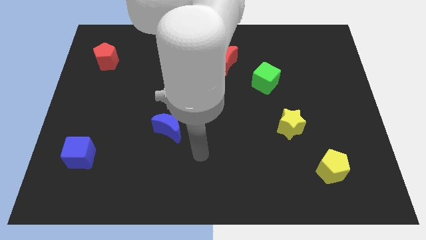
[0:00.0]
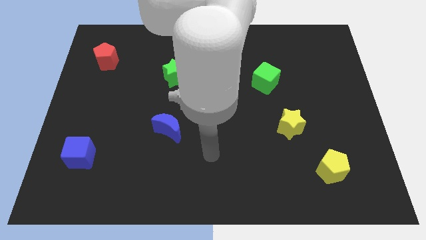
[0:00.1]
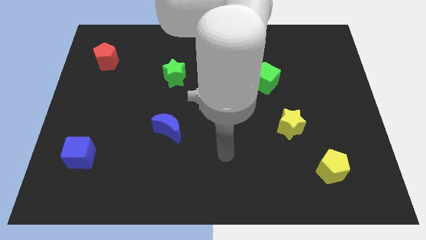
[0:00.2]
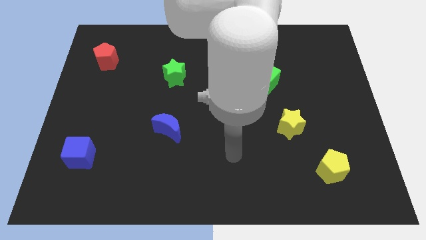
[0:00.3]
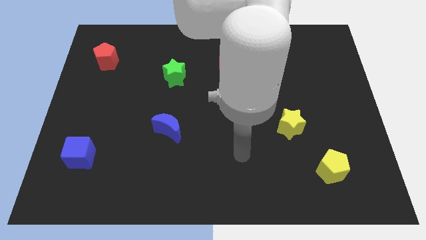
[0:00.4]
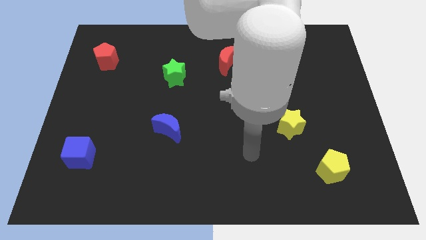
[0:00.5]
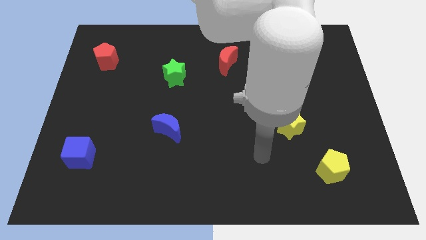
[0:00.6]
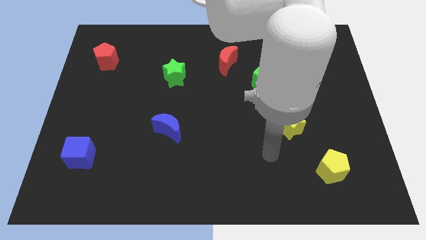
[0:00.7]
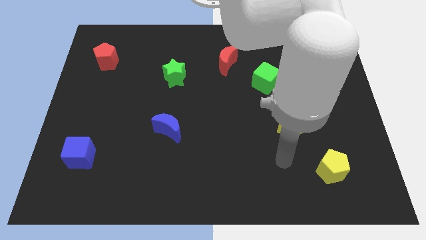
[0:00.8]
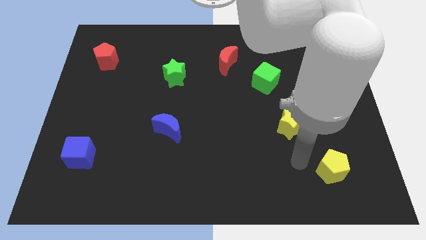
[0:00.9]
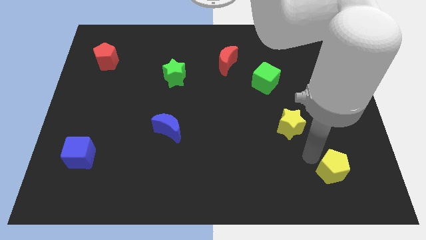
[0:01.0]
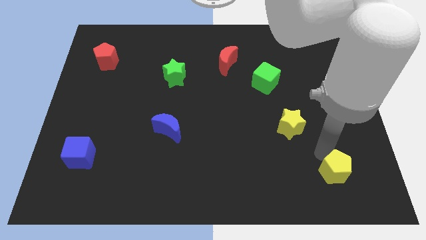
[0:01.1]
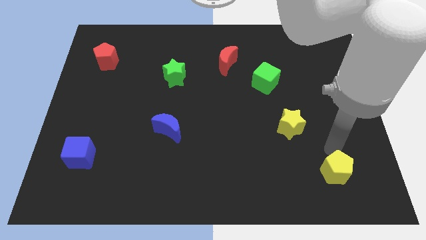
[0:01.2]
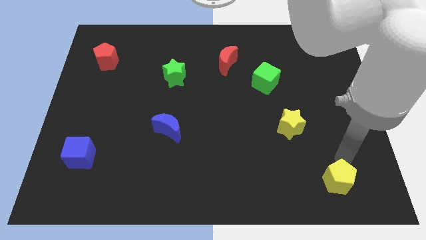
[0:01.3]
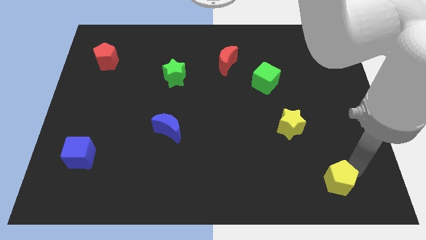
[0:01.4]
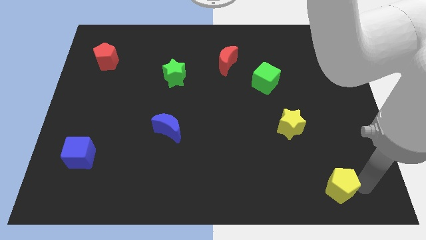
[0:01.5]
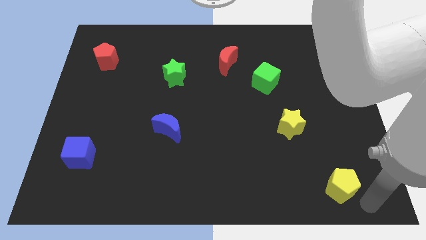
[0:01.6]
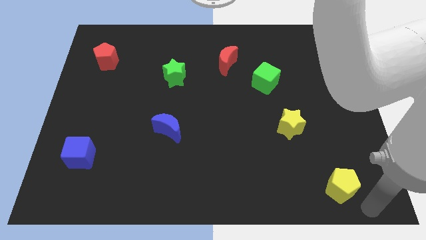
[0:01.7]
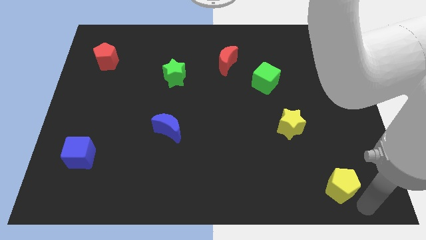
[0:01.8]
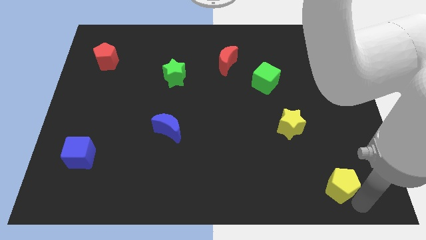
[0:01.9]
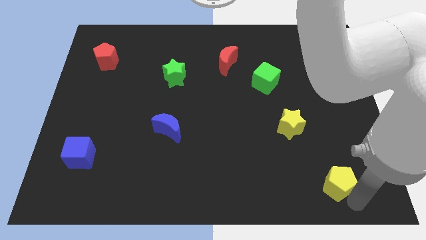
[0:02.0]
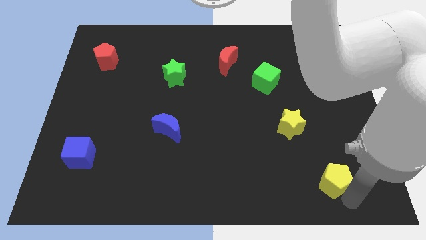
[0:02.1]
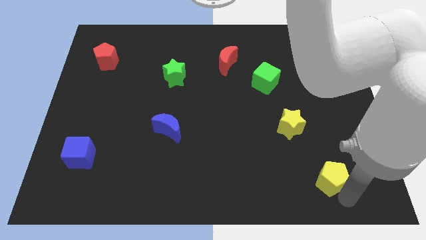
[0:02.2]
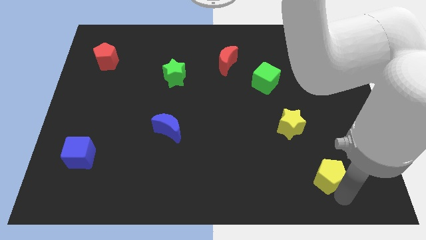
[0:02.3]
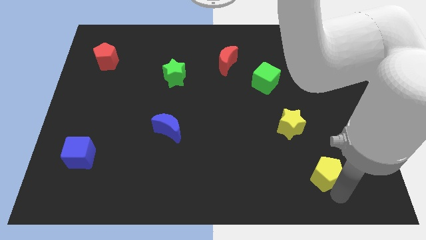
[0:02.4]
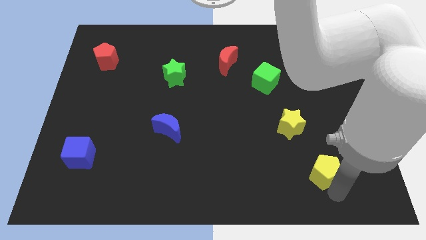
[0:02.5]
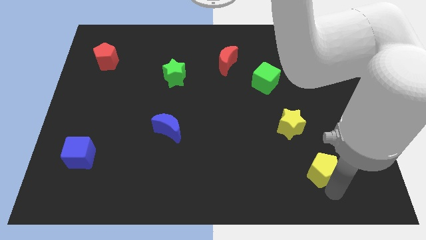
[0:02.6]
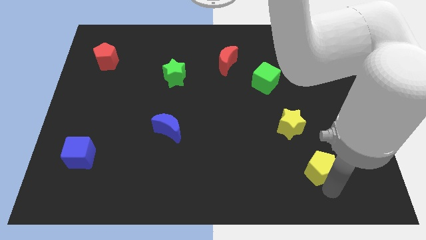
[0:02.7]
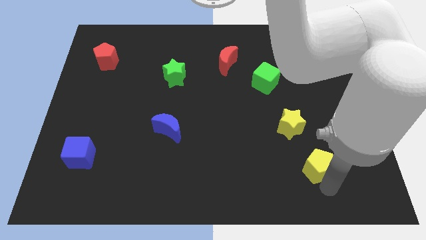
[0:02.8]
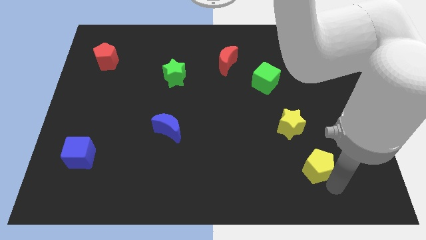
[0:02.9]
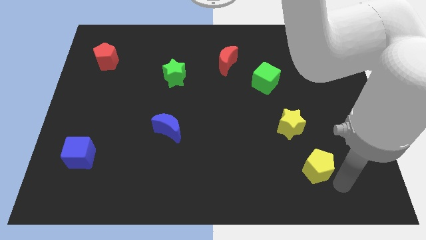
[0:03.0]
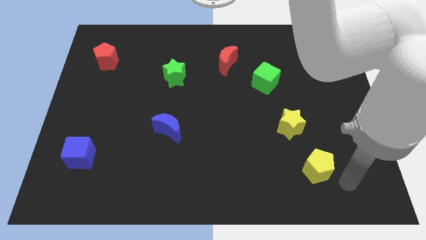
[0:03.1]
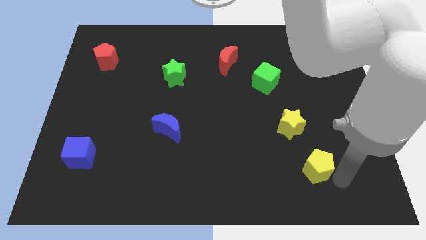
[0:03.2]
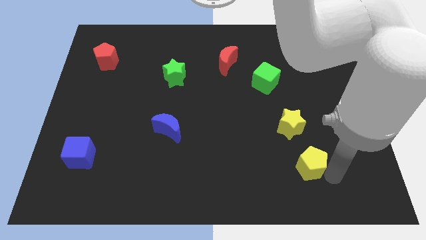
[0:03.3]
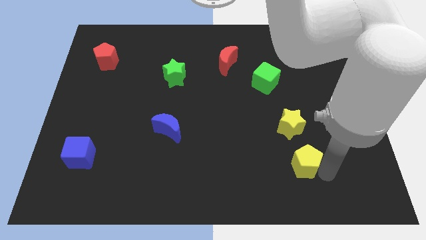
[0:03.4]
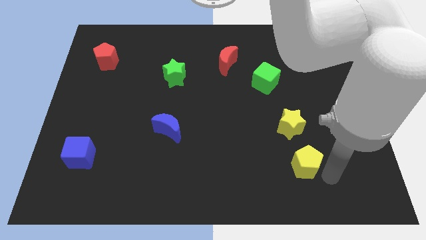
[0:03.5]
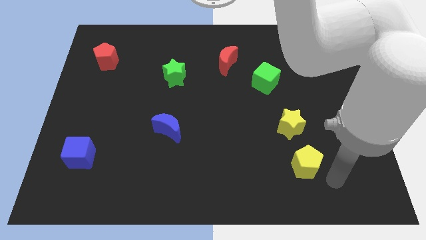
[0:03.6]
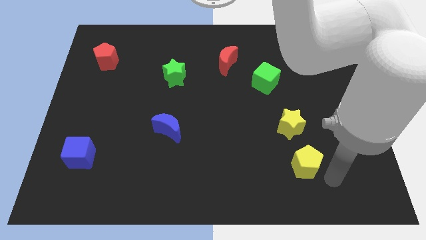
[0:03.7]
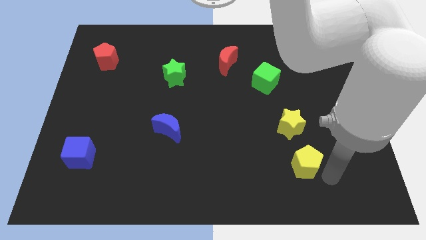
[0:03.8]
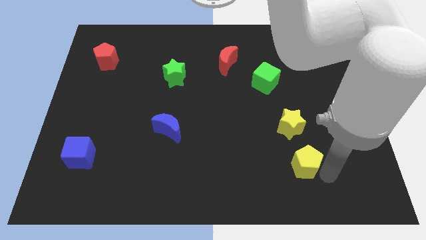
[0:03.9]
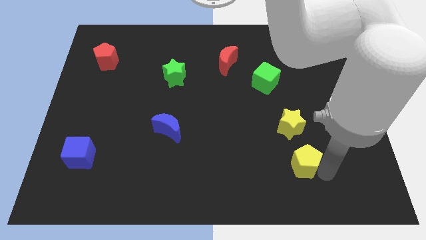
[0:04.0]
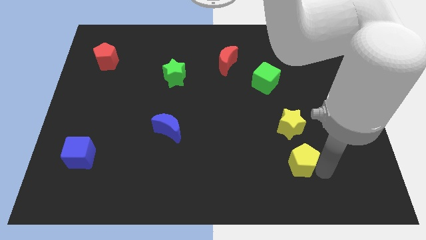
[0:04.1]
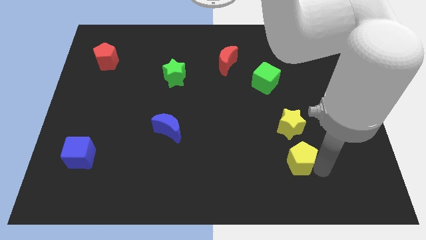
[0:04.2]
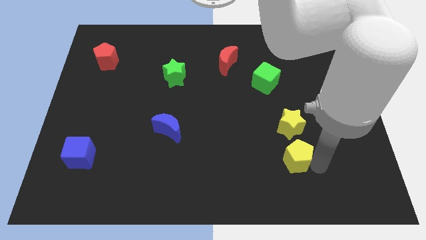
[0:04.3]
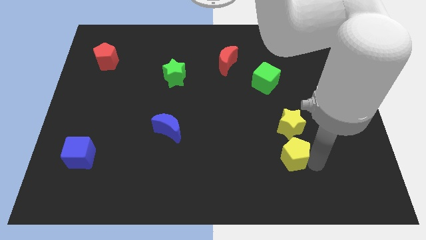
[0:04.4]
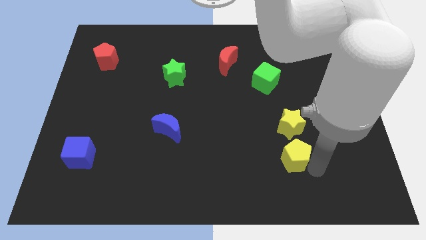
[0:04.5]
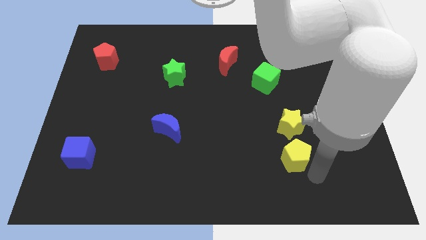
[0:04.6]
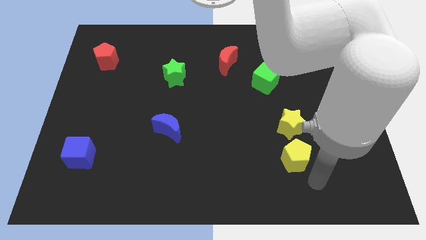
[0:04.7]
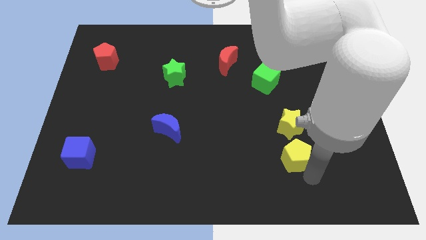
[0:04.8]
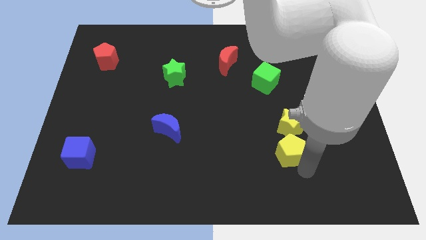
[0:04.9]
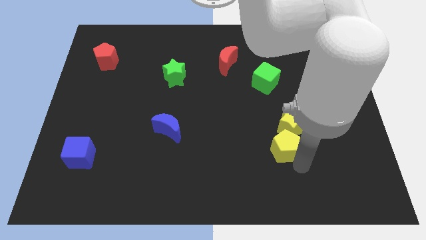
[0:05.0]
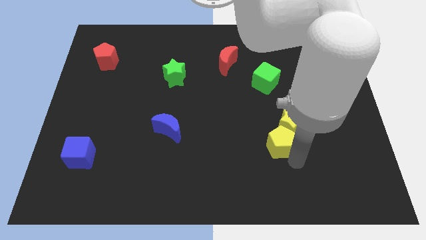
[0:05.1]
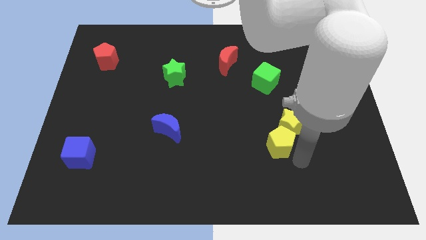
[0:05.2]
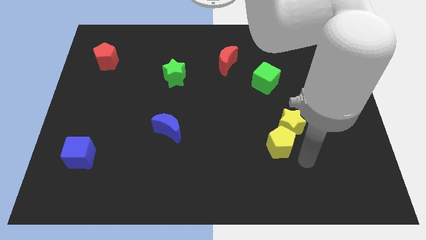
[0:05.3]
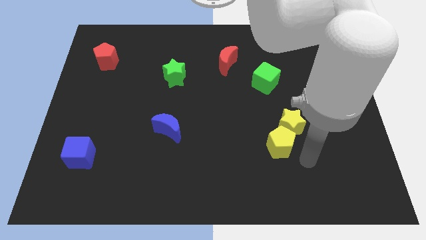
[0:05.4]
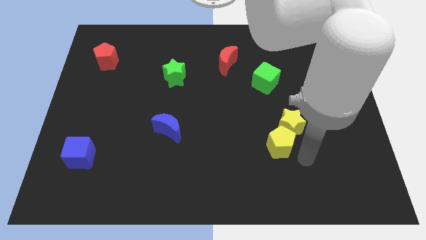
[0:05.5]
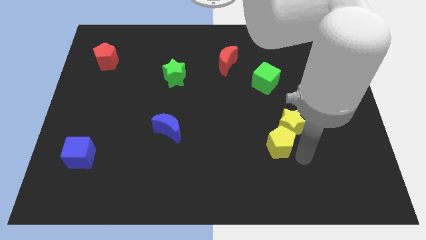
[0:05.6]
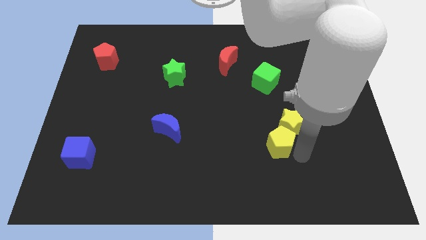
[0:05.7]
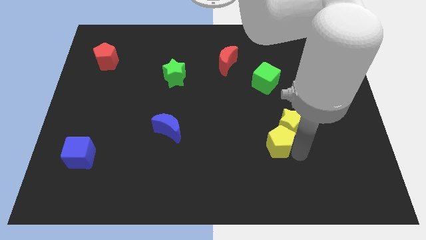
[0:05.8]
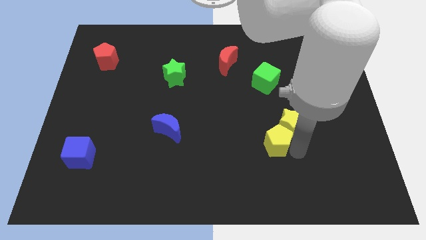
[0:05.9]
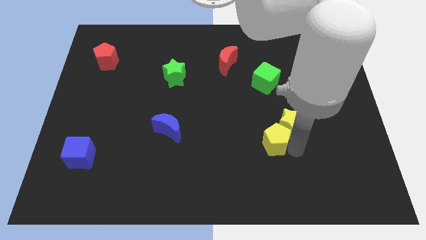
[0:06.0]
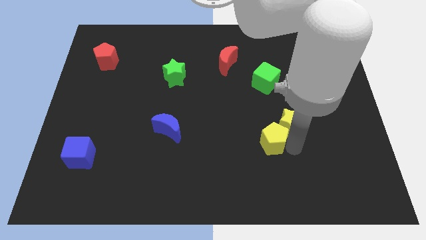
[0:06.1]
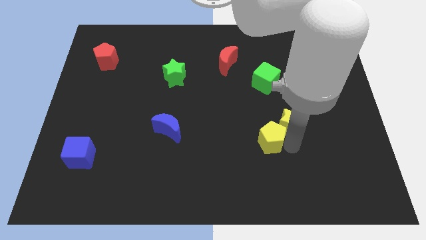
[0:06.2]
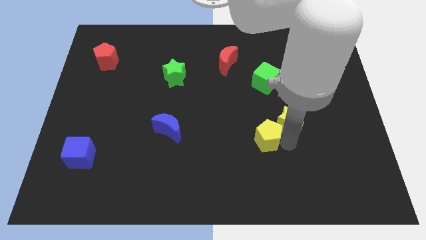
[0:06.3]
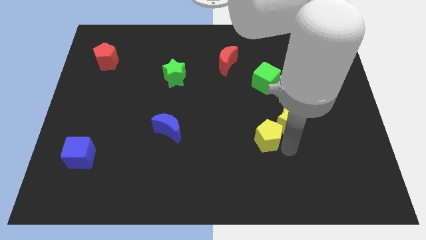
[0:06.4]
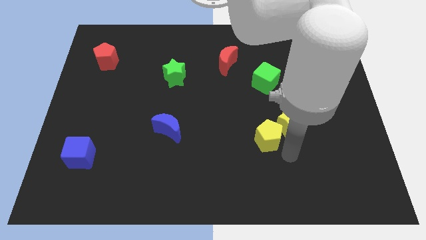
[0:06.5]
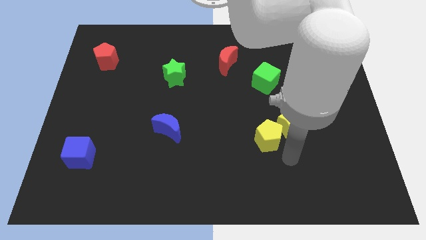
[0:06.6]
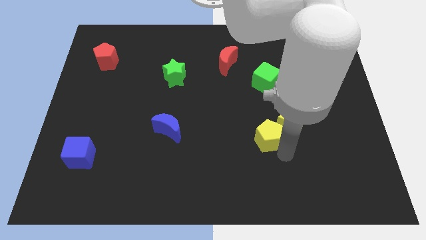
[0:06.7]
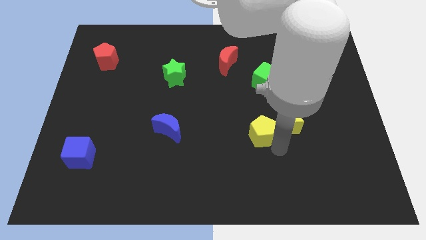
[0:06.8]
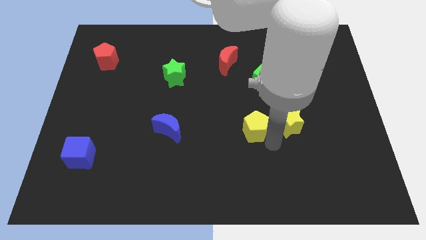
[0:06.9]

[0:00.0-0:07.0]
push the yellow pentagon to the middle
